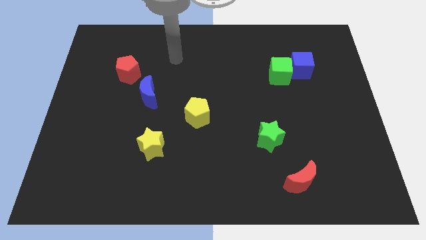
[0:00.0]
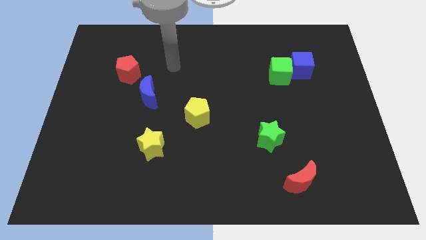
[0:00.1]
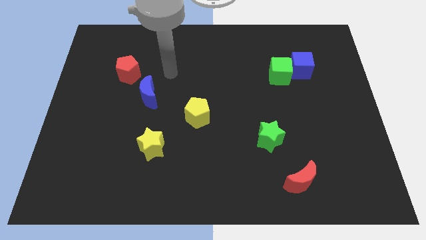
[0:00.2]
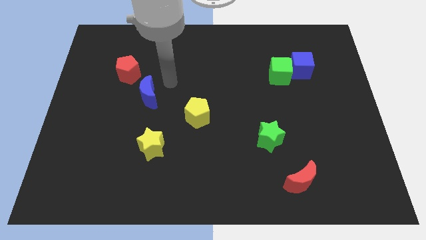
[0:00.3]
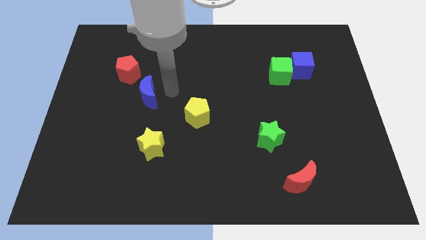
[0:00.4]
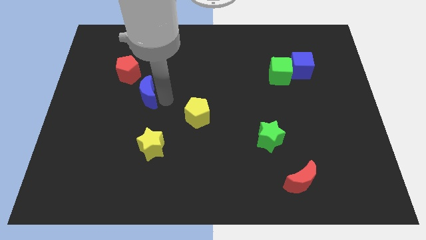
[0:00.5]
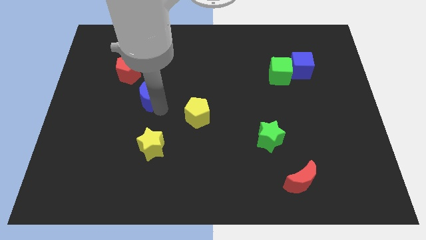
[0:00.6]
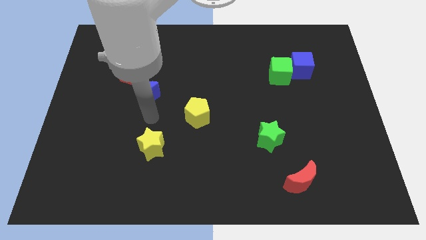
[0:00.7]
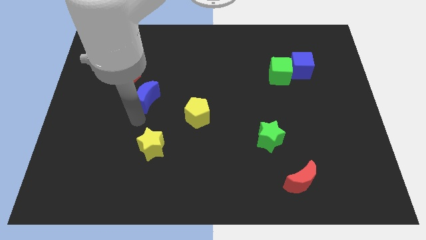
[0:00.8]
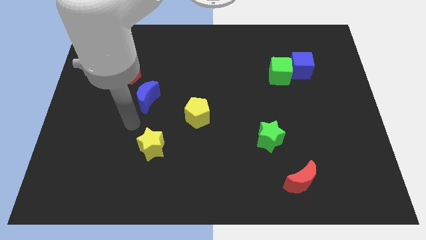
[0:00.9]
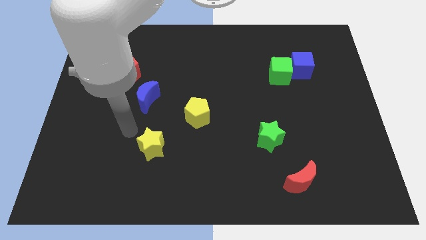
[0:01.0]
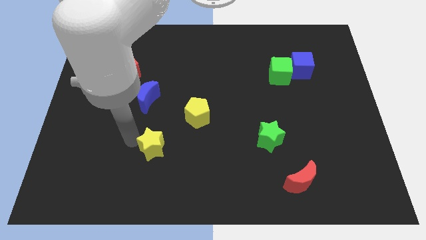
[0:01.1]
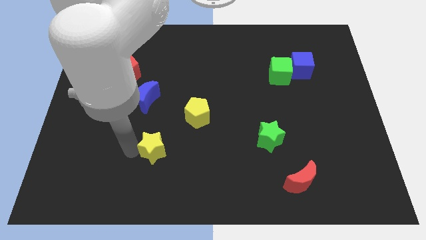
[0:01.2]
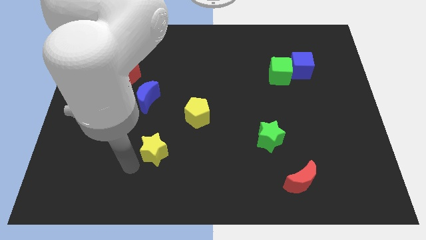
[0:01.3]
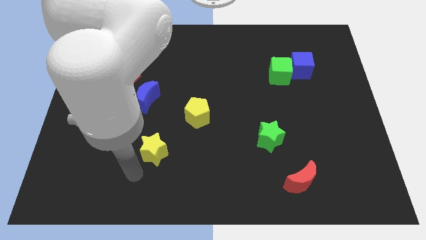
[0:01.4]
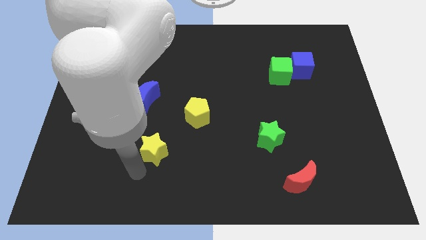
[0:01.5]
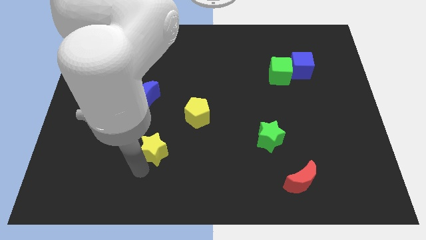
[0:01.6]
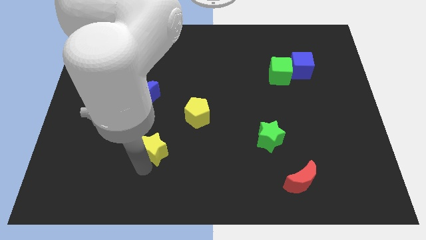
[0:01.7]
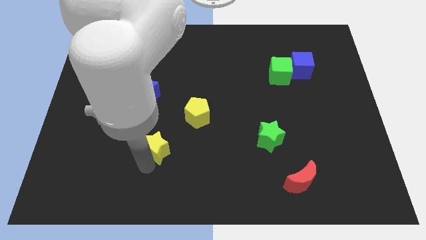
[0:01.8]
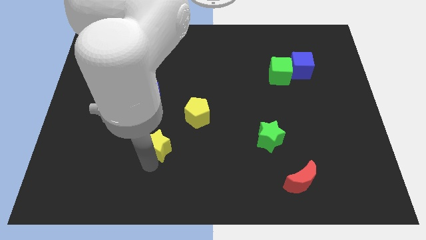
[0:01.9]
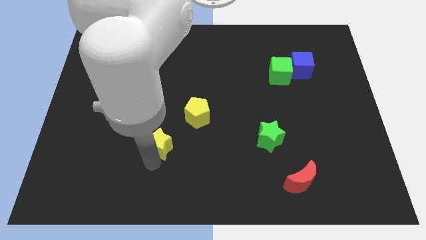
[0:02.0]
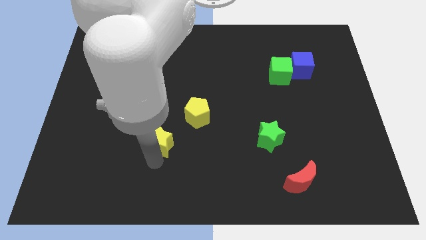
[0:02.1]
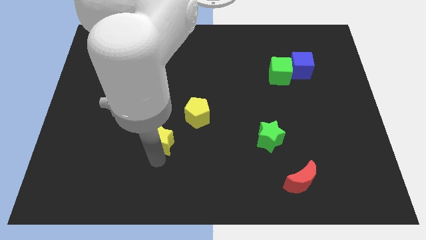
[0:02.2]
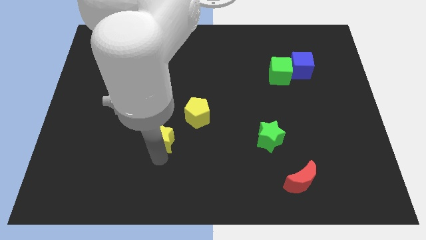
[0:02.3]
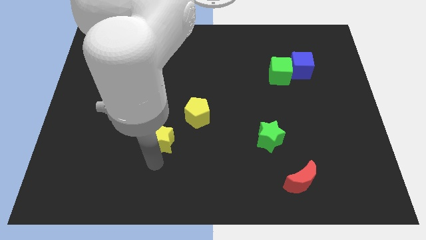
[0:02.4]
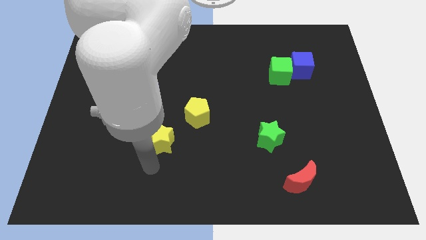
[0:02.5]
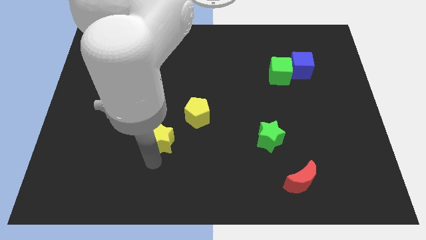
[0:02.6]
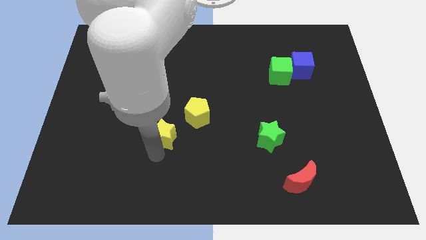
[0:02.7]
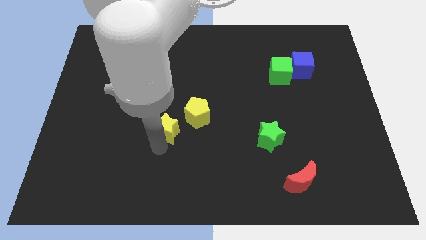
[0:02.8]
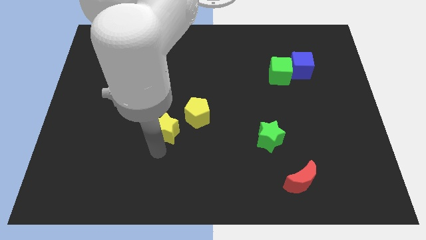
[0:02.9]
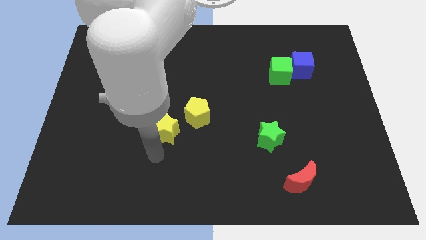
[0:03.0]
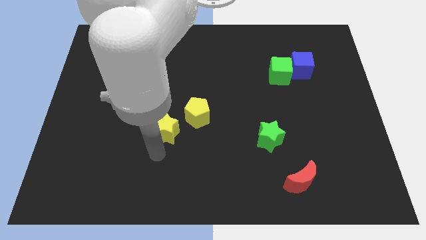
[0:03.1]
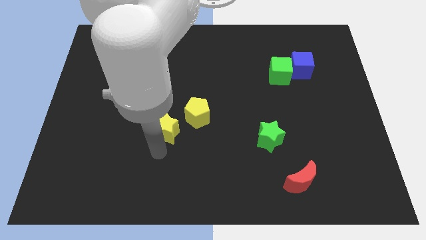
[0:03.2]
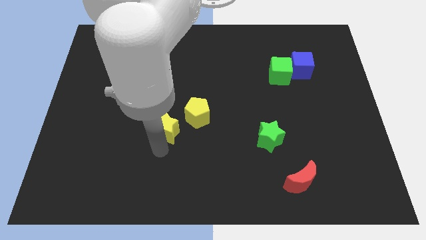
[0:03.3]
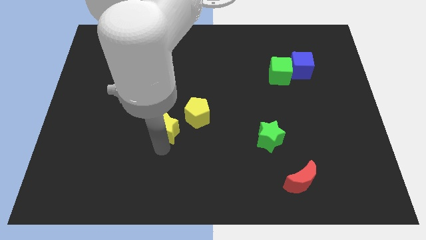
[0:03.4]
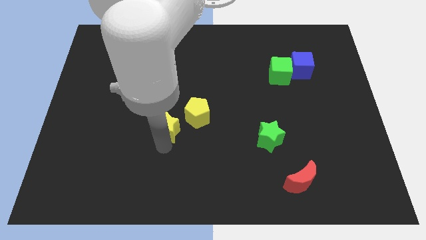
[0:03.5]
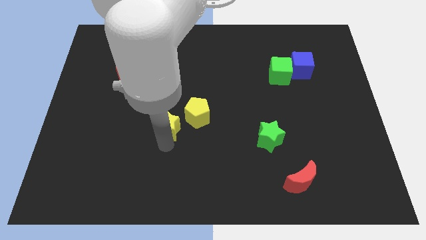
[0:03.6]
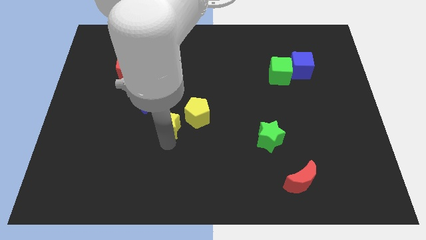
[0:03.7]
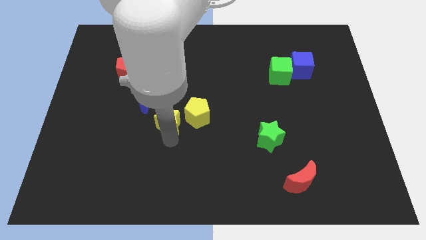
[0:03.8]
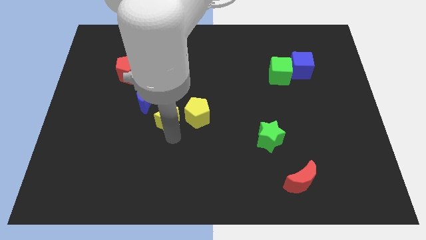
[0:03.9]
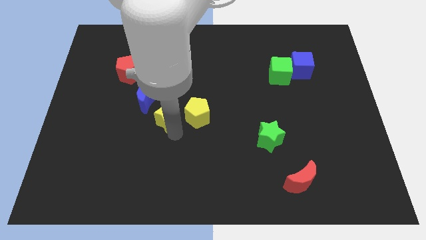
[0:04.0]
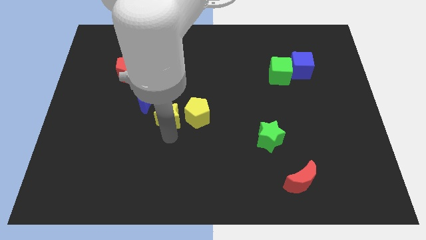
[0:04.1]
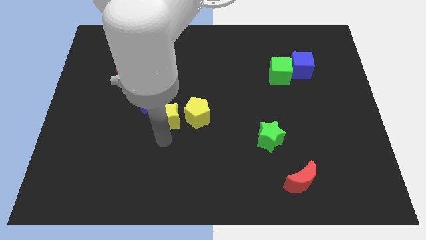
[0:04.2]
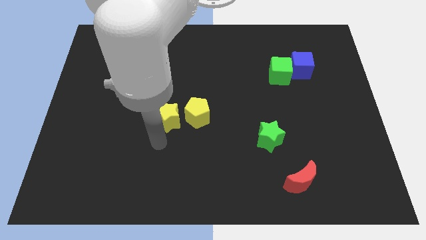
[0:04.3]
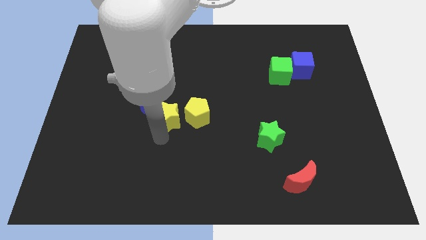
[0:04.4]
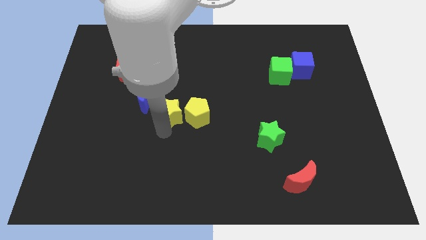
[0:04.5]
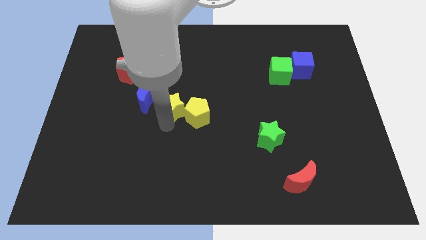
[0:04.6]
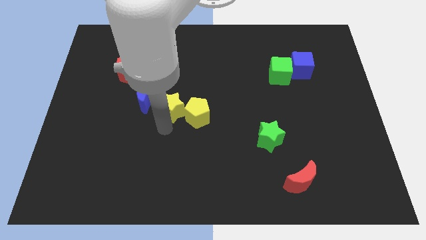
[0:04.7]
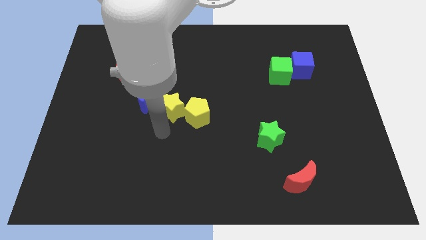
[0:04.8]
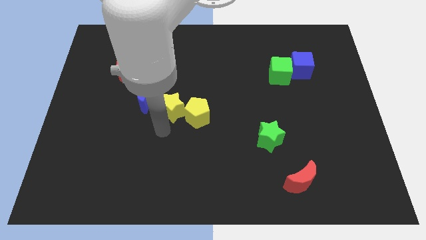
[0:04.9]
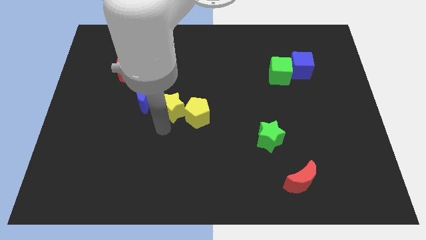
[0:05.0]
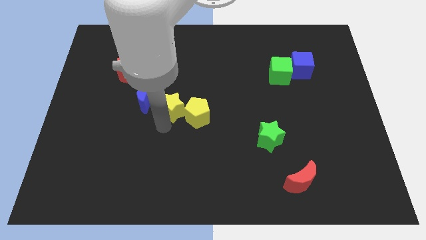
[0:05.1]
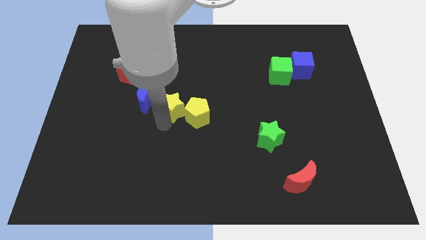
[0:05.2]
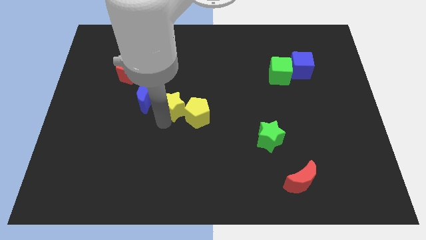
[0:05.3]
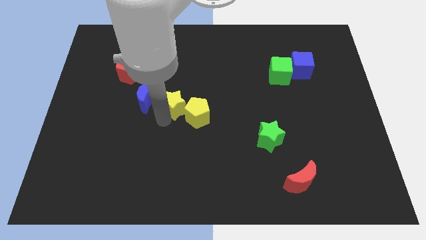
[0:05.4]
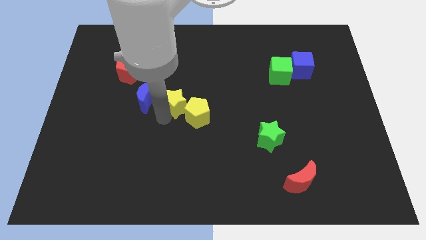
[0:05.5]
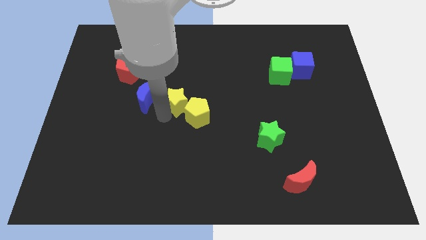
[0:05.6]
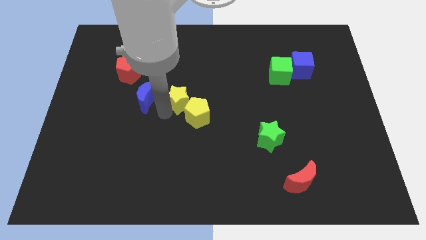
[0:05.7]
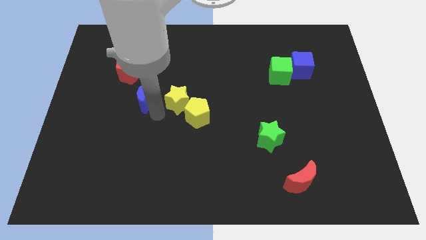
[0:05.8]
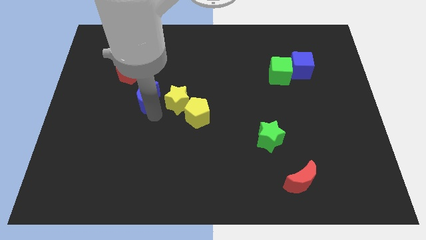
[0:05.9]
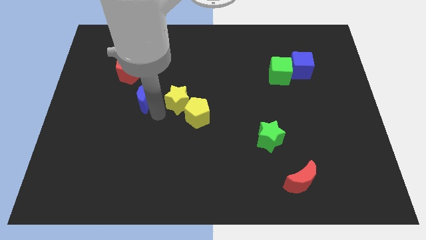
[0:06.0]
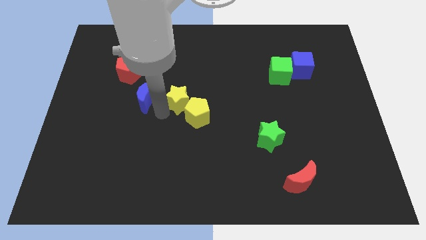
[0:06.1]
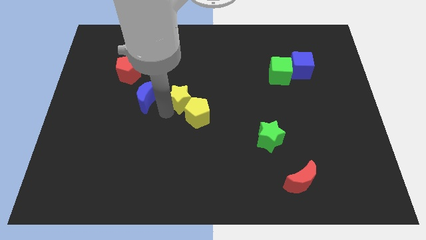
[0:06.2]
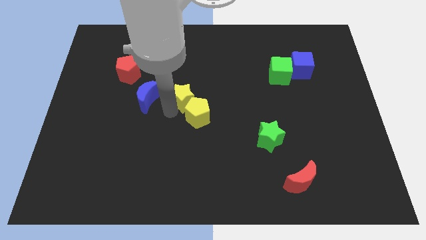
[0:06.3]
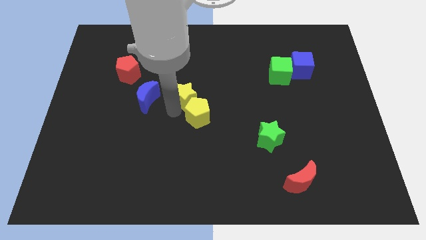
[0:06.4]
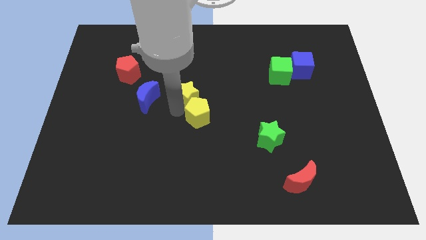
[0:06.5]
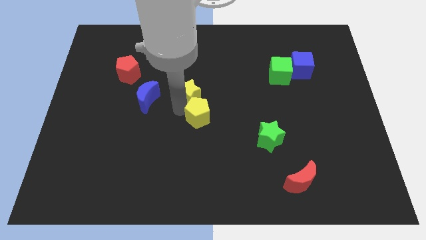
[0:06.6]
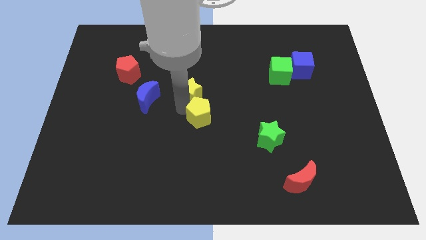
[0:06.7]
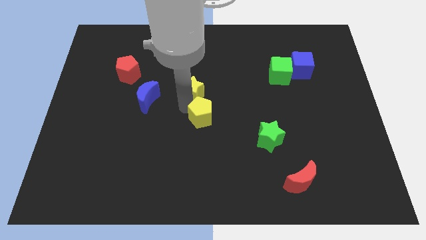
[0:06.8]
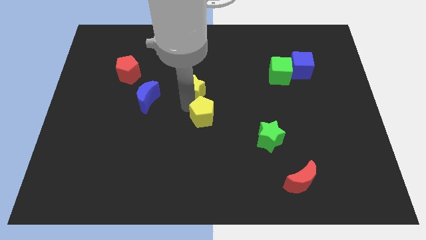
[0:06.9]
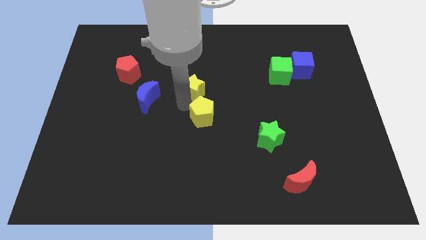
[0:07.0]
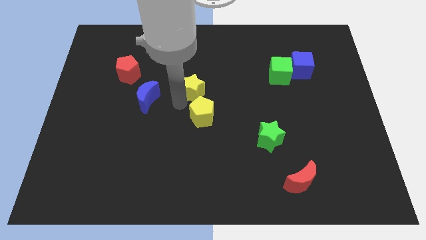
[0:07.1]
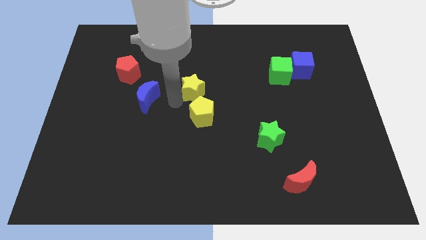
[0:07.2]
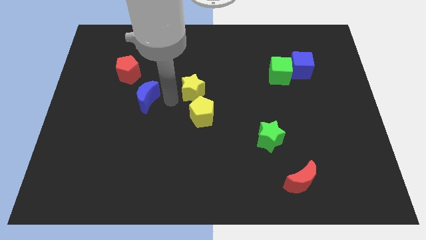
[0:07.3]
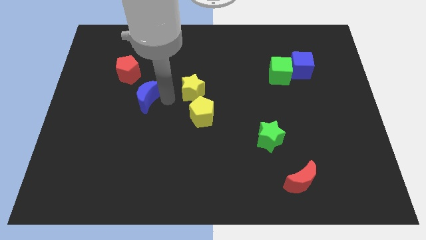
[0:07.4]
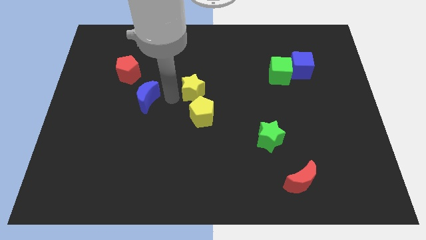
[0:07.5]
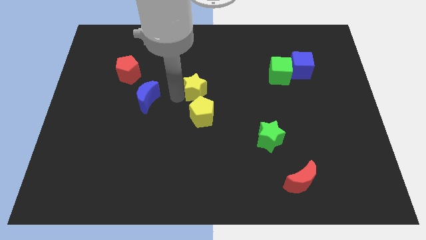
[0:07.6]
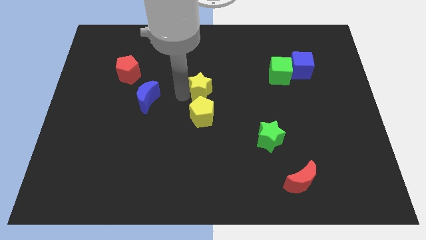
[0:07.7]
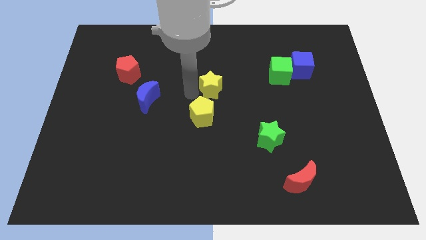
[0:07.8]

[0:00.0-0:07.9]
move the yellow star diagonally upwards and to the right
